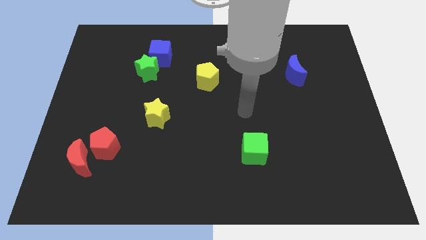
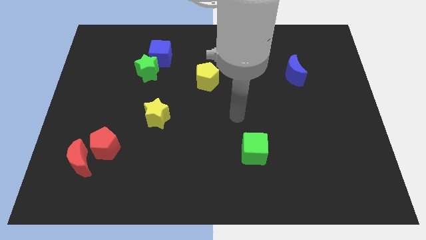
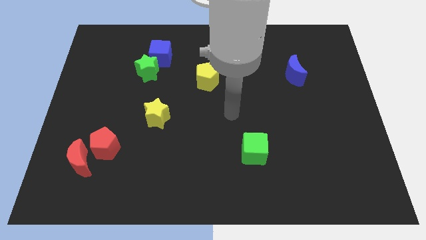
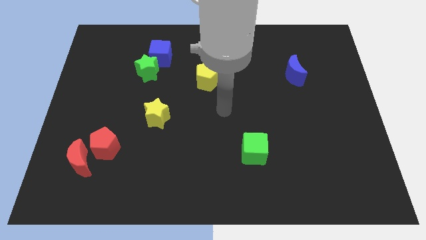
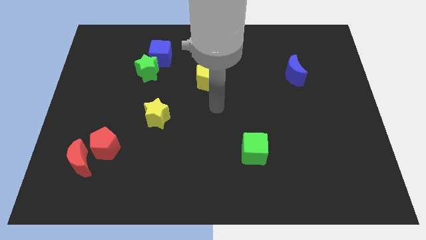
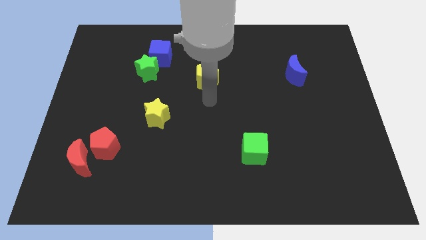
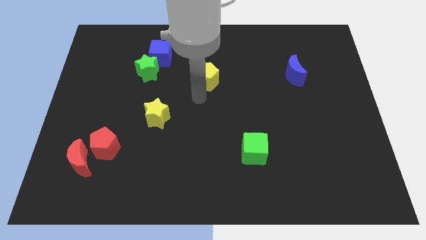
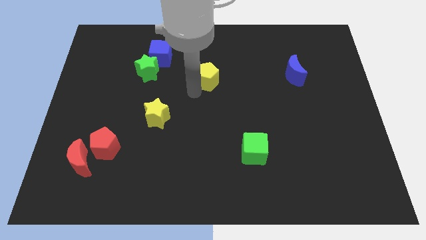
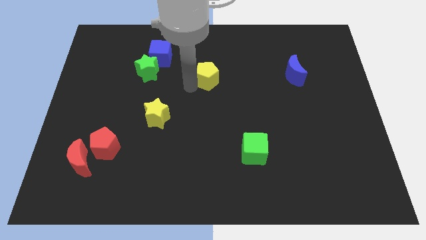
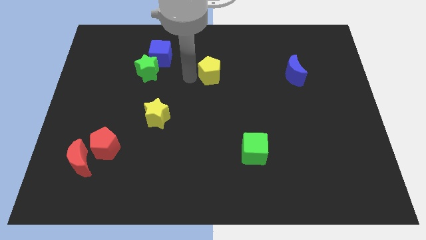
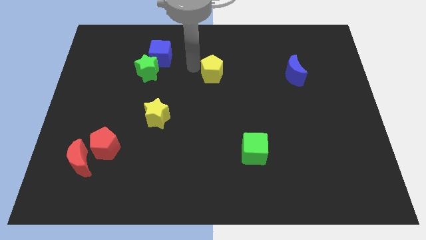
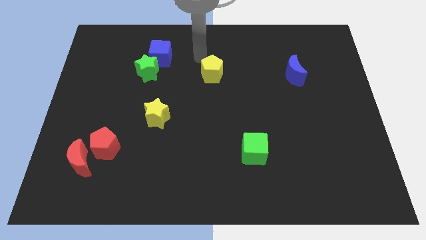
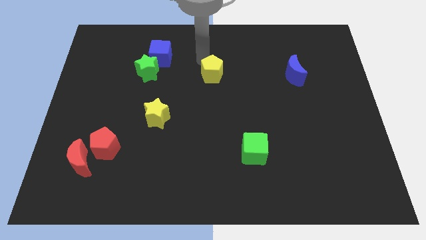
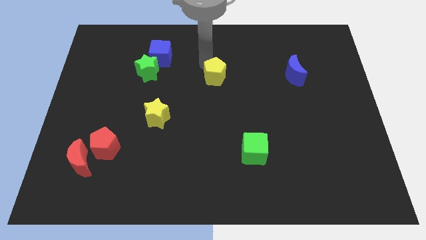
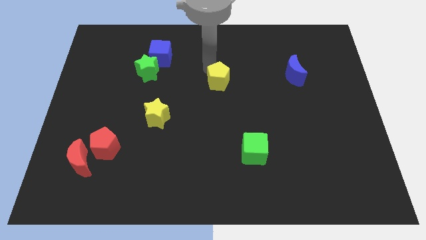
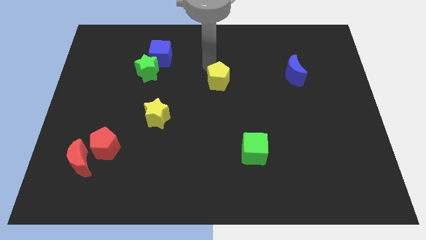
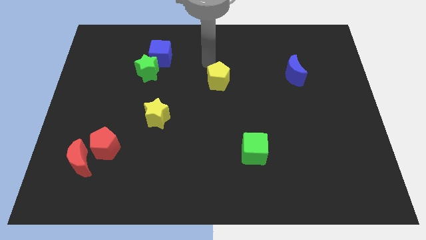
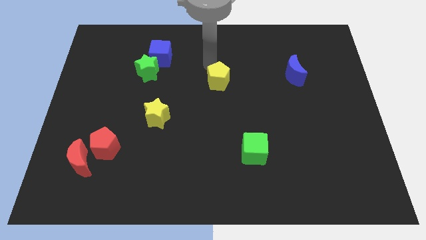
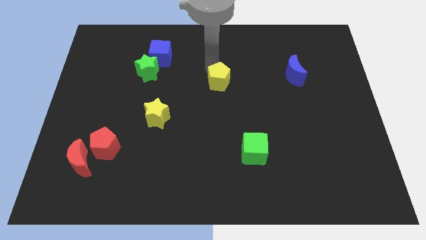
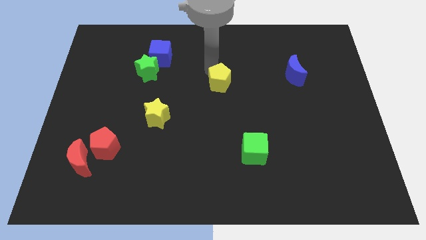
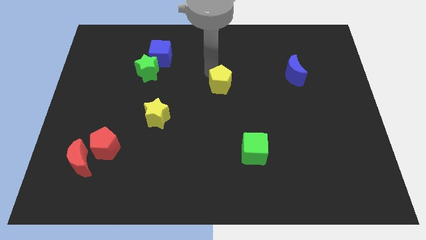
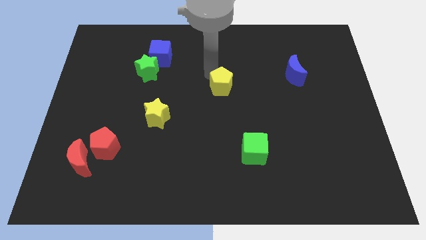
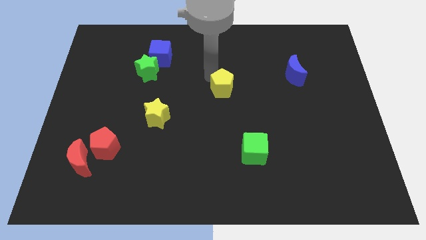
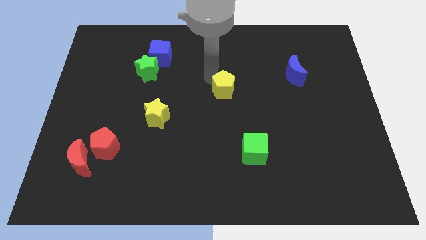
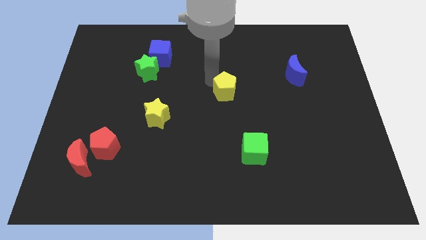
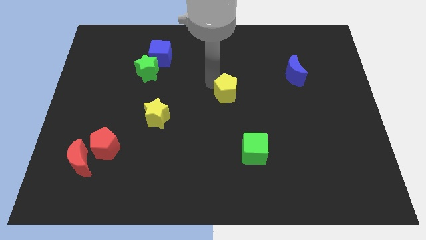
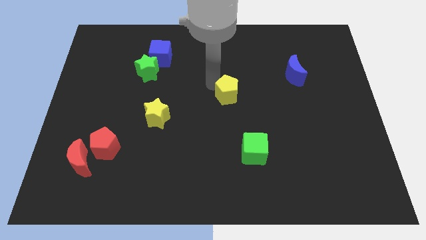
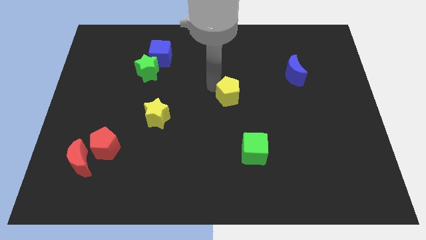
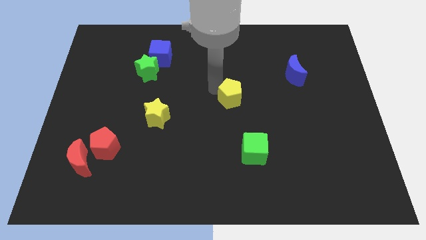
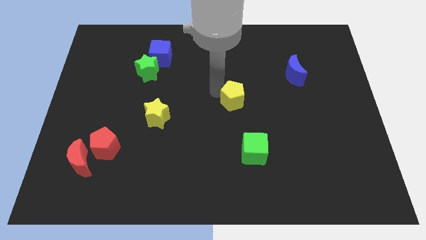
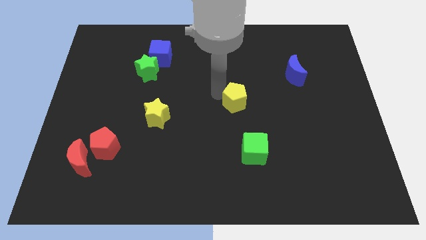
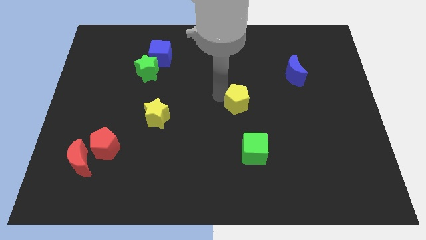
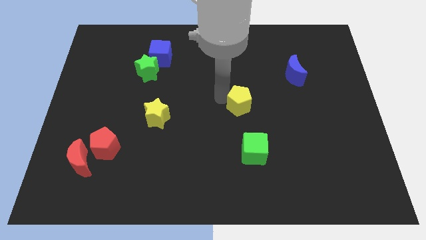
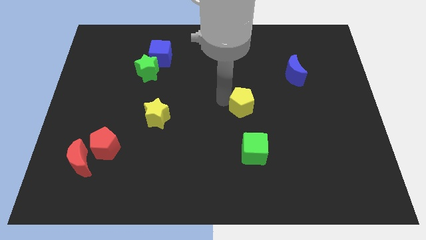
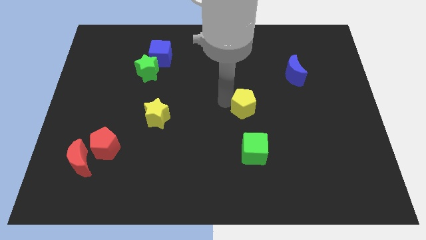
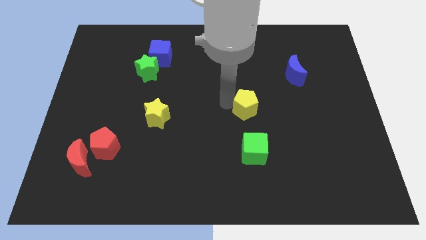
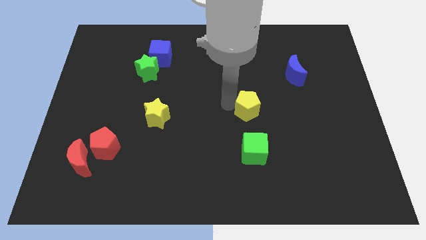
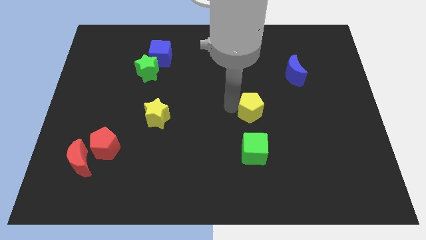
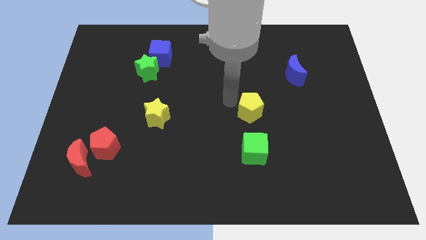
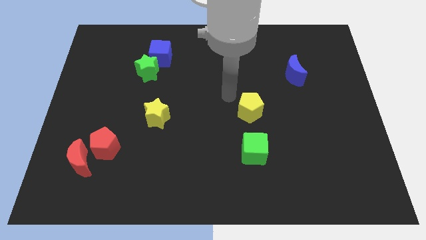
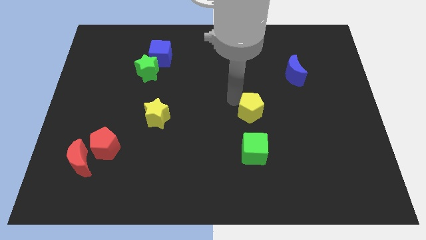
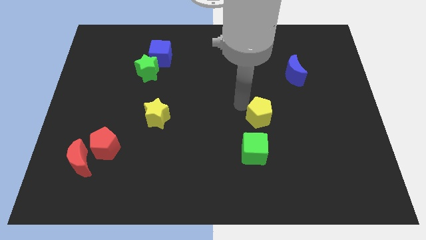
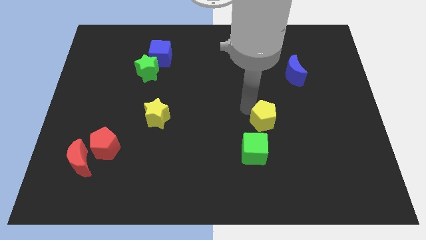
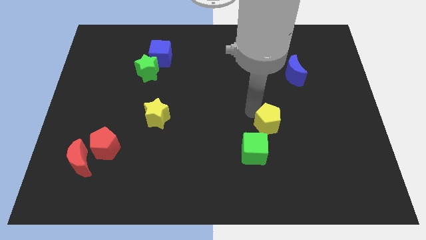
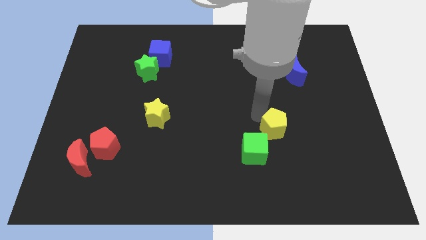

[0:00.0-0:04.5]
slide the yellow pentagon down and to the right diagonally

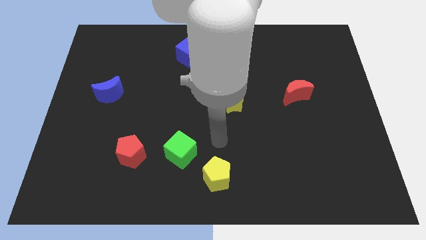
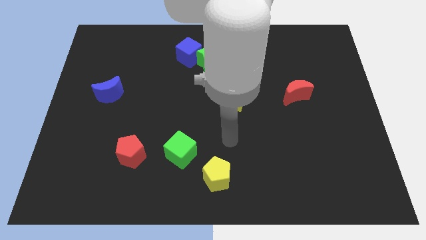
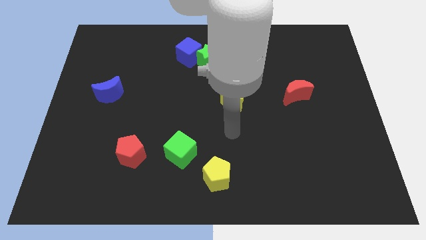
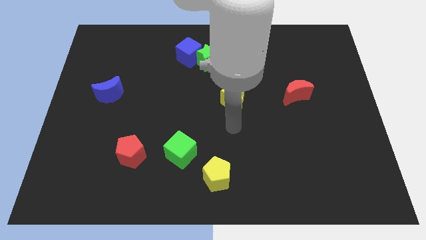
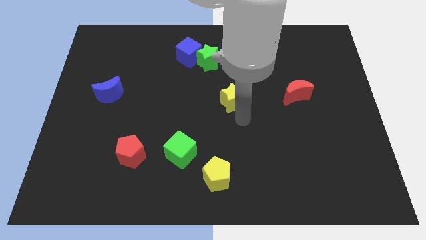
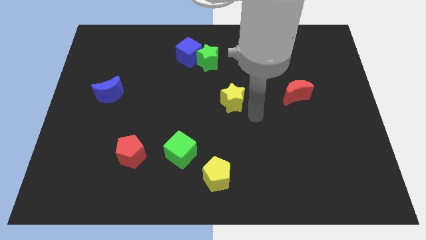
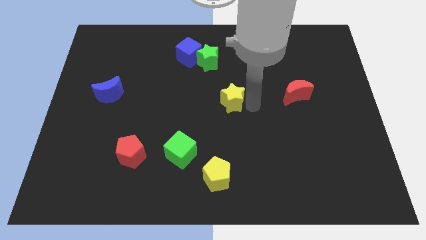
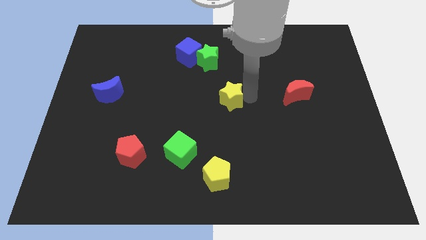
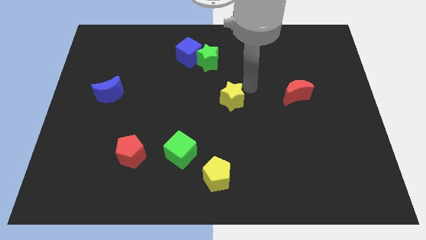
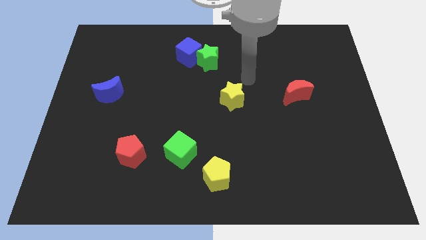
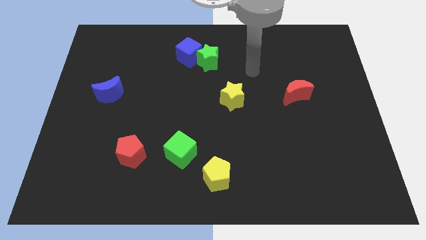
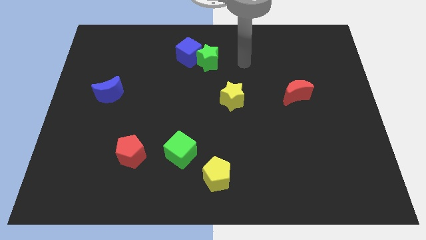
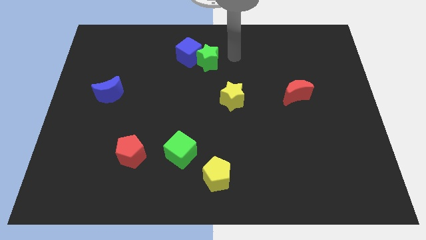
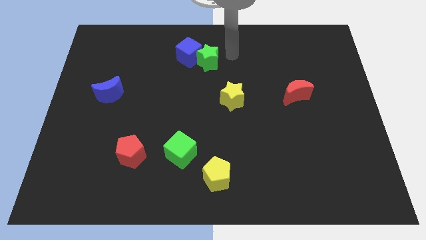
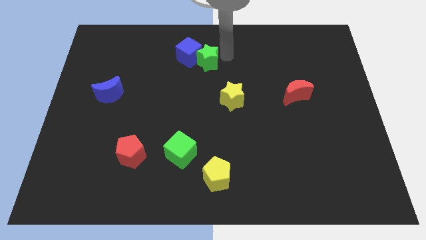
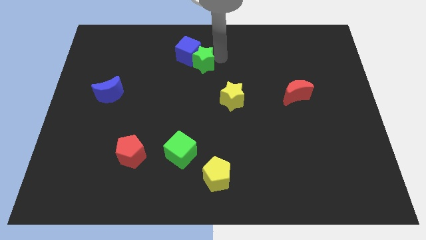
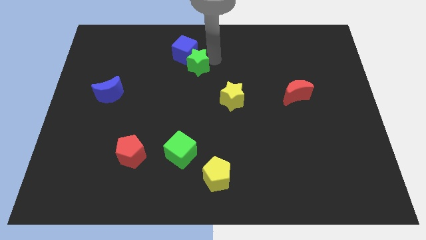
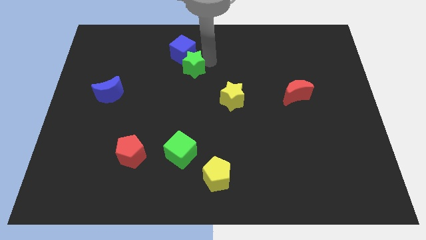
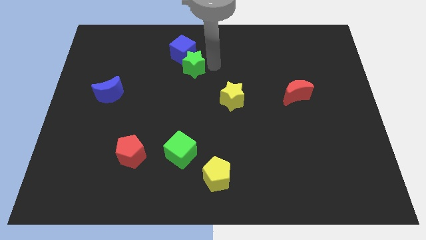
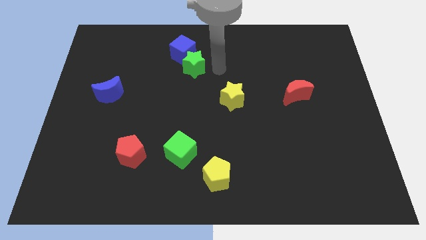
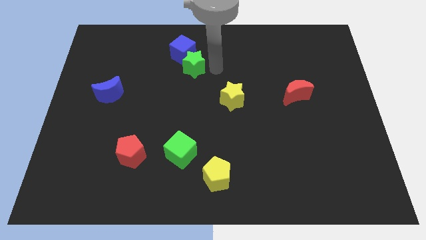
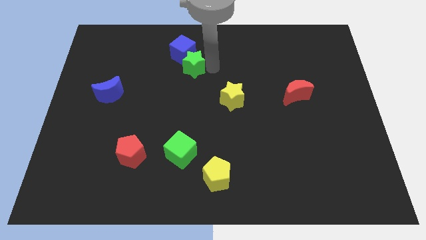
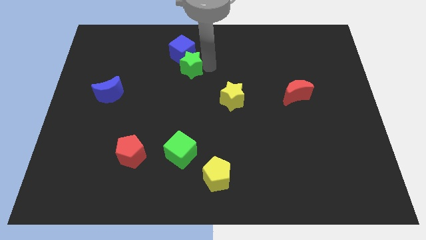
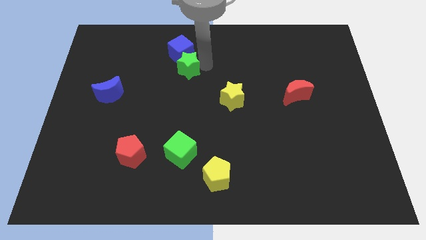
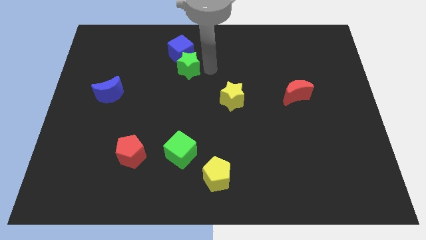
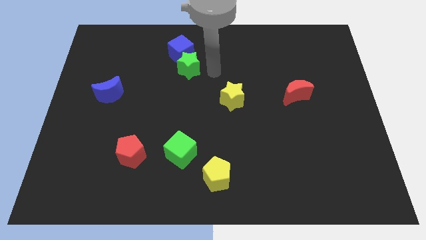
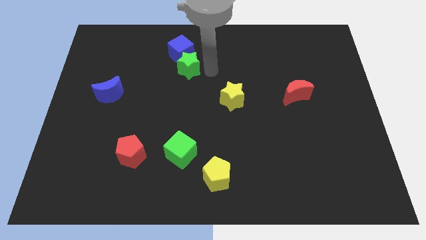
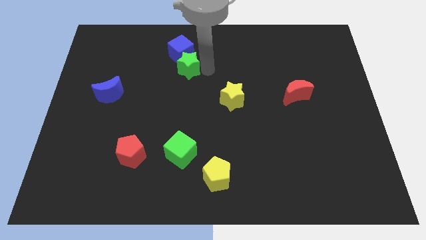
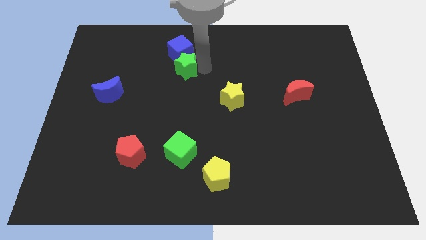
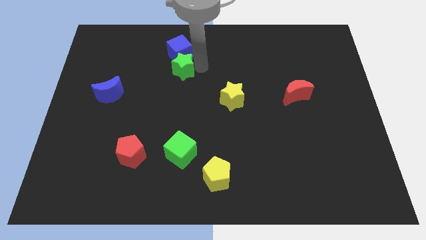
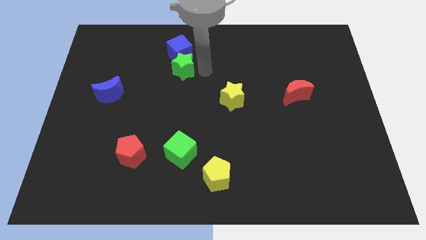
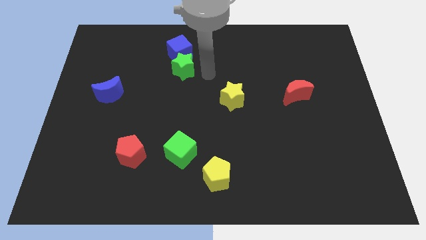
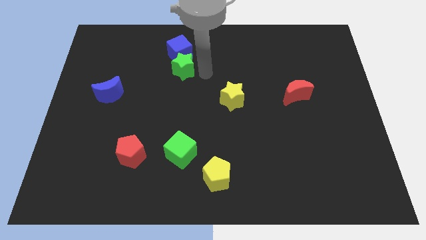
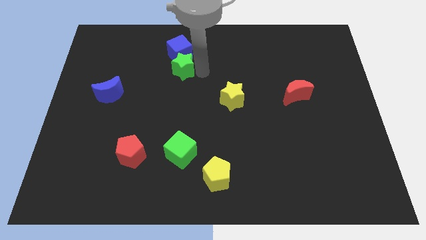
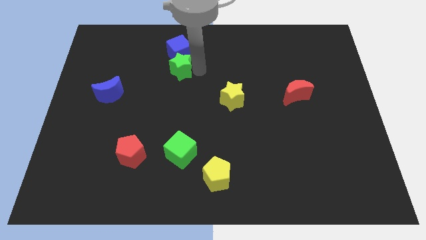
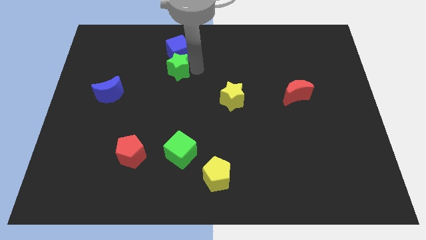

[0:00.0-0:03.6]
move the green star a bit left

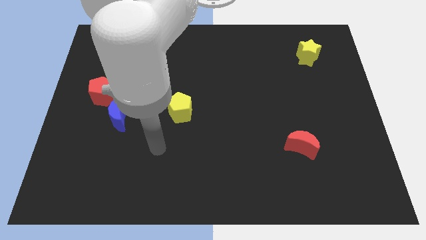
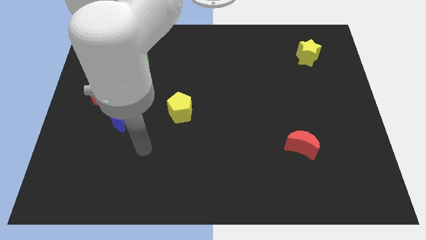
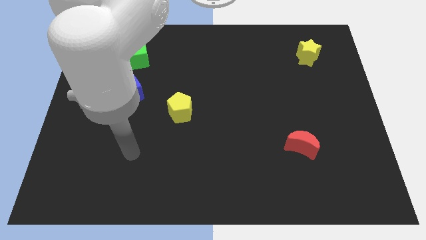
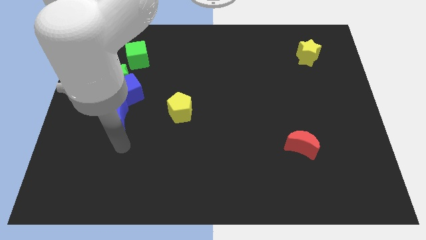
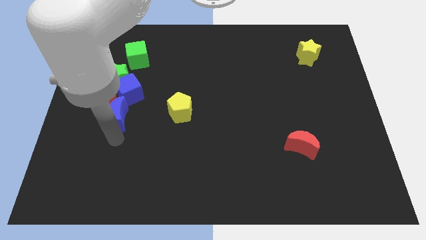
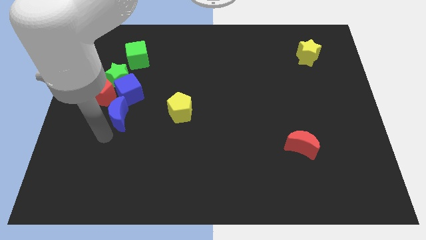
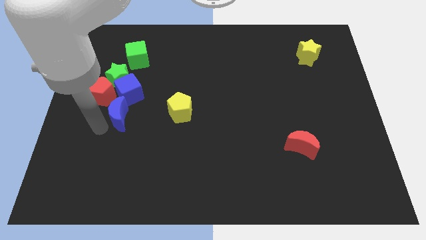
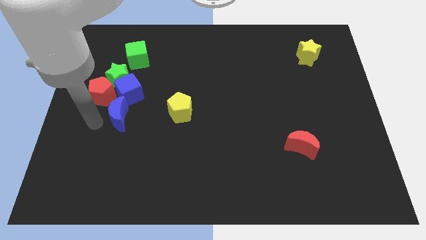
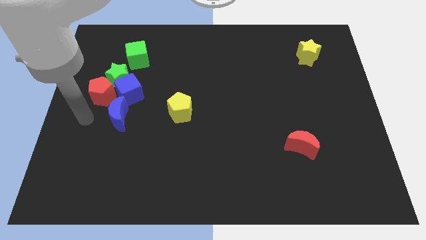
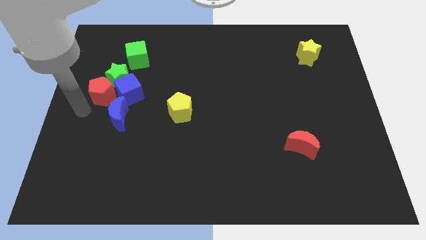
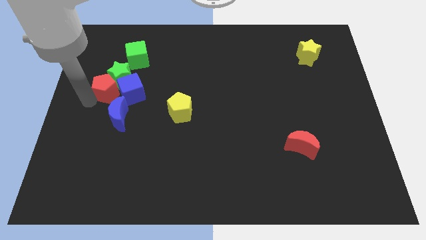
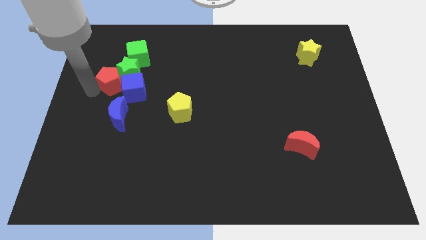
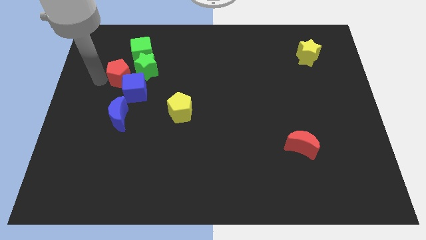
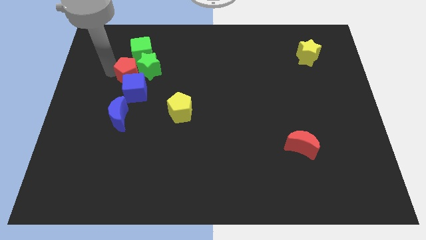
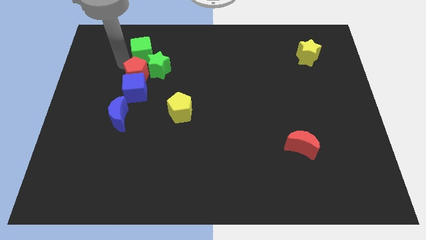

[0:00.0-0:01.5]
push the green star right slightly
